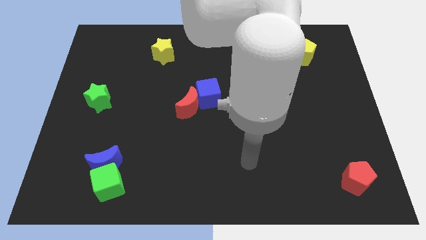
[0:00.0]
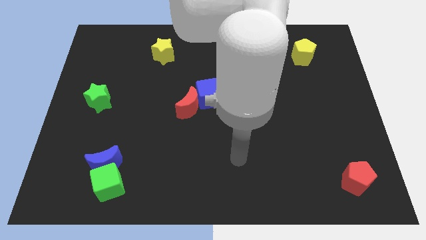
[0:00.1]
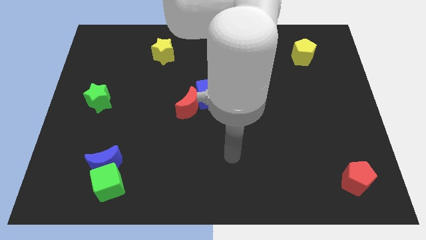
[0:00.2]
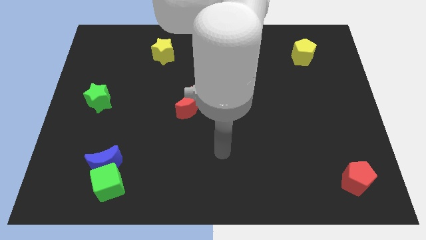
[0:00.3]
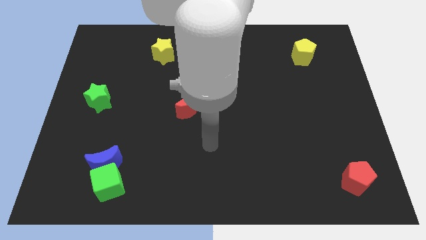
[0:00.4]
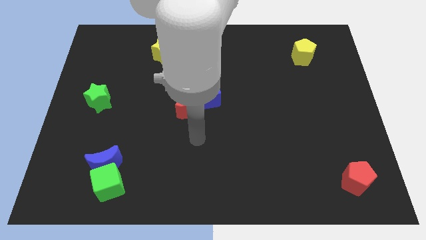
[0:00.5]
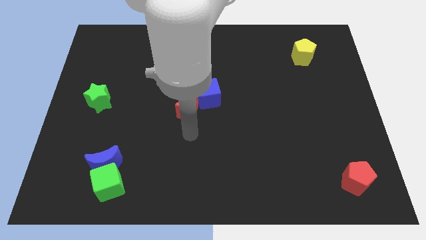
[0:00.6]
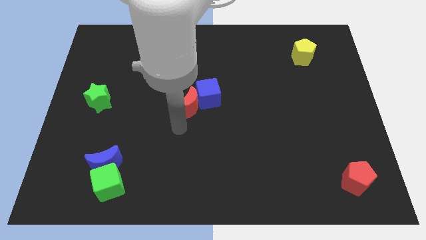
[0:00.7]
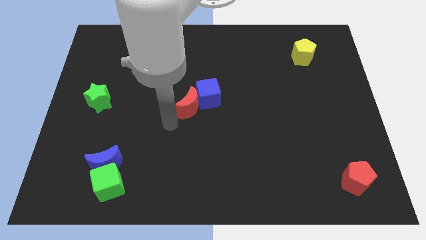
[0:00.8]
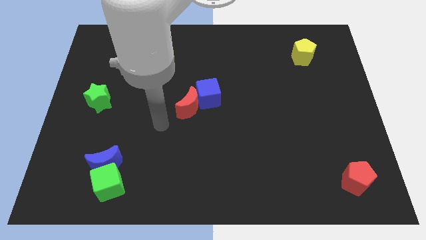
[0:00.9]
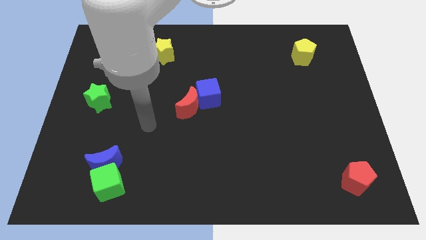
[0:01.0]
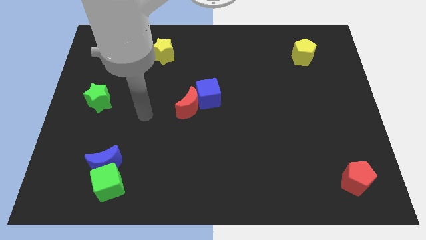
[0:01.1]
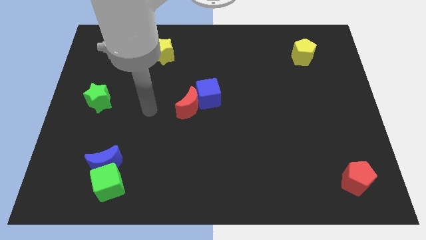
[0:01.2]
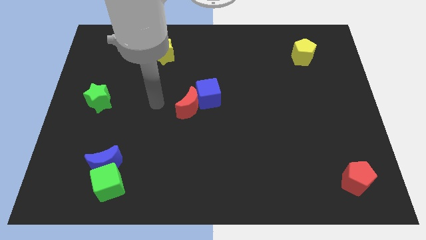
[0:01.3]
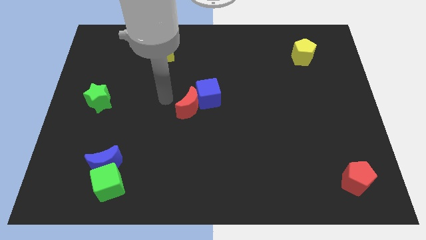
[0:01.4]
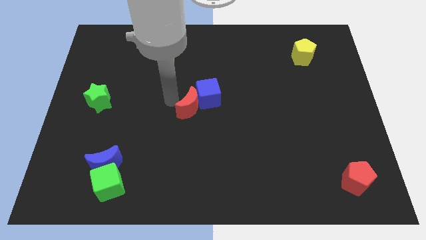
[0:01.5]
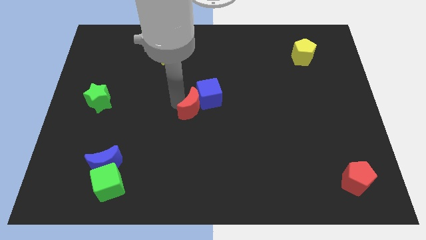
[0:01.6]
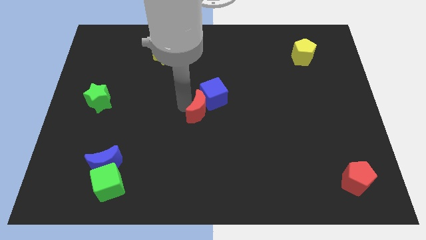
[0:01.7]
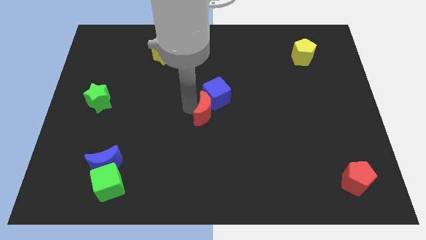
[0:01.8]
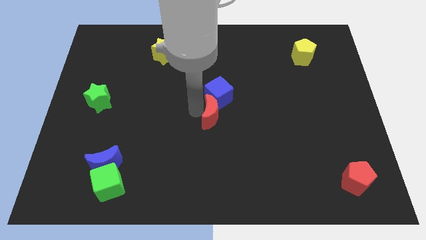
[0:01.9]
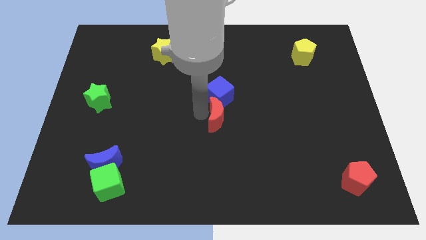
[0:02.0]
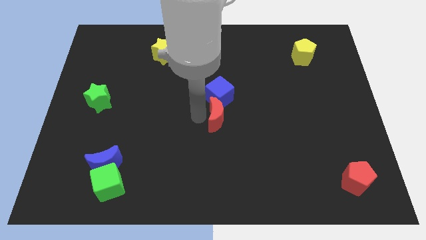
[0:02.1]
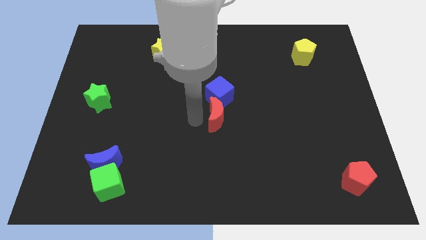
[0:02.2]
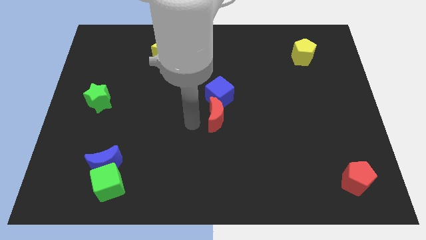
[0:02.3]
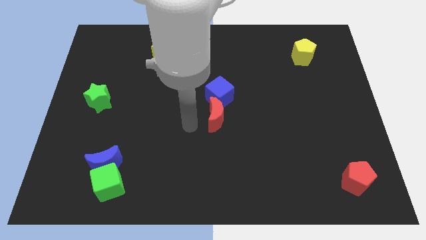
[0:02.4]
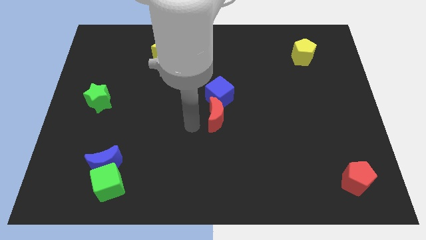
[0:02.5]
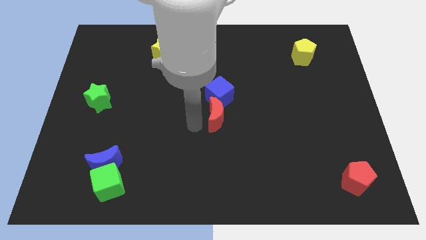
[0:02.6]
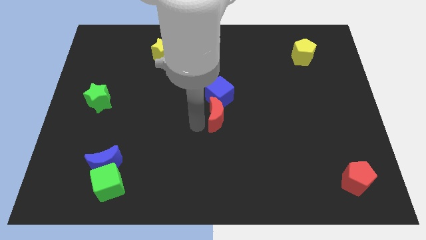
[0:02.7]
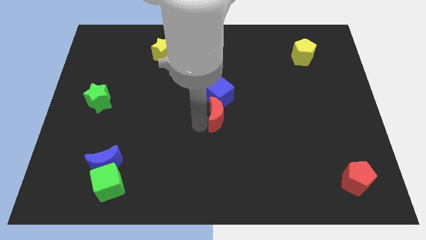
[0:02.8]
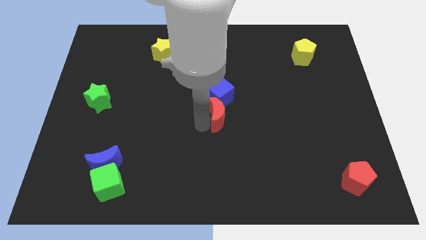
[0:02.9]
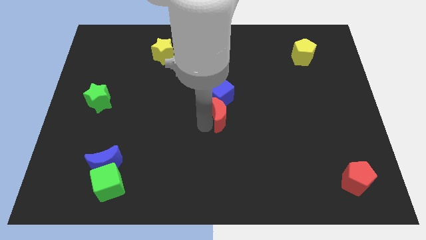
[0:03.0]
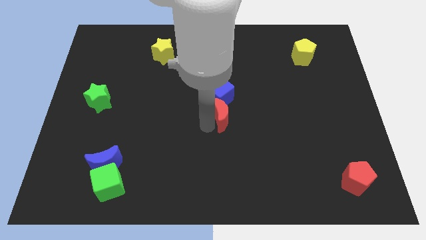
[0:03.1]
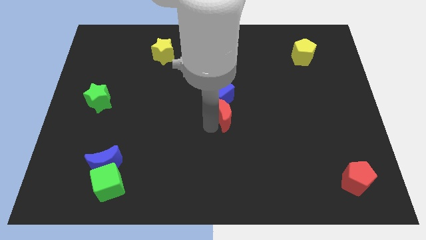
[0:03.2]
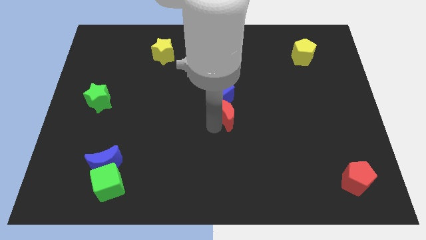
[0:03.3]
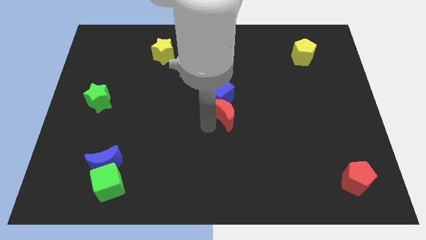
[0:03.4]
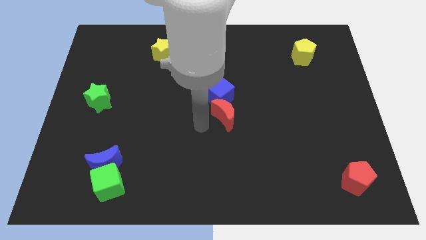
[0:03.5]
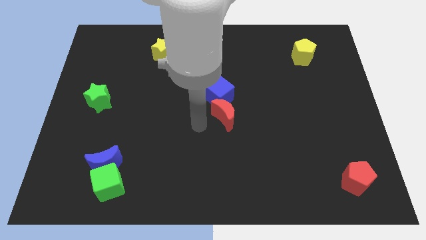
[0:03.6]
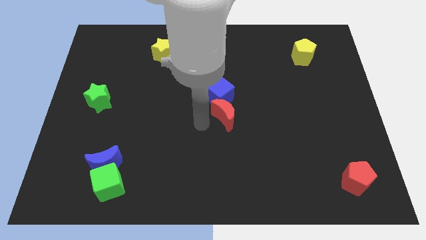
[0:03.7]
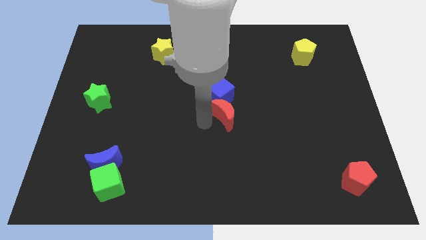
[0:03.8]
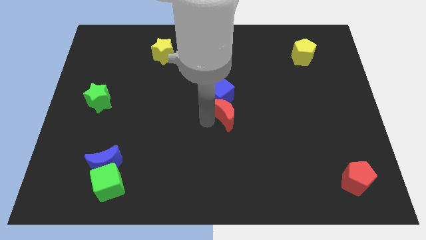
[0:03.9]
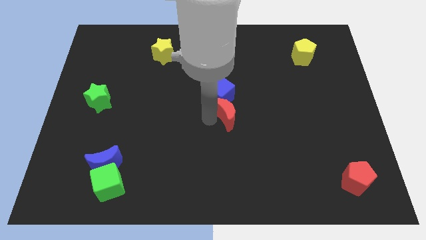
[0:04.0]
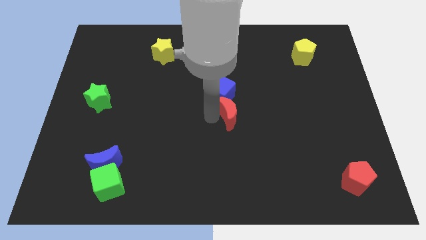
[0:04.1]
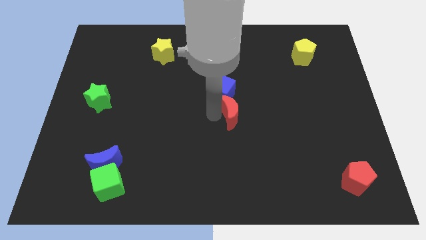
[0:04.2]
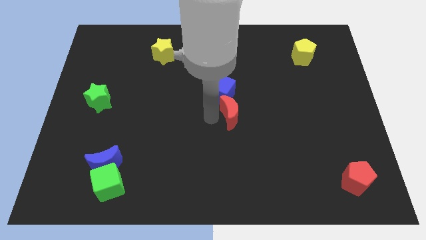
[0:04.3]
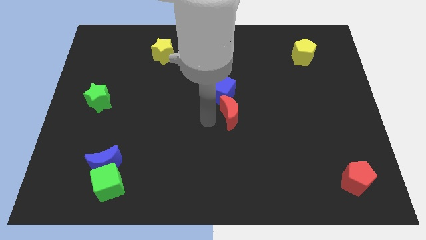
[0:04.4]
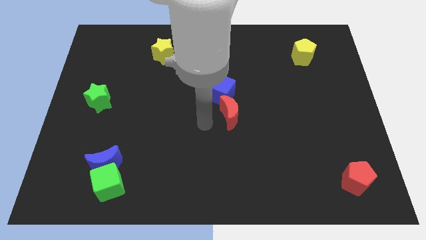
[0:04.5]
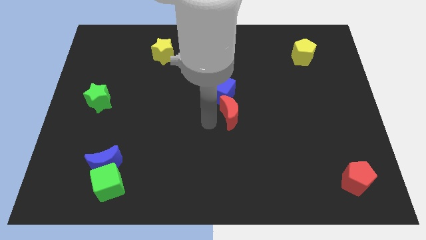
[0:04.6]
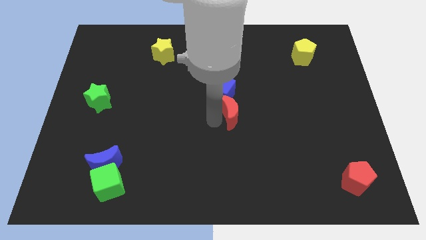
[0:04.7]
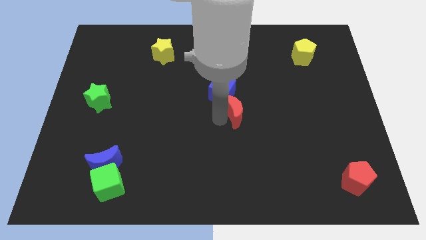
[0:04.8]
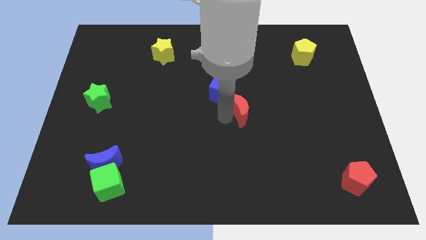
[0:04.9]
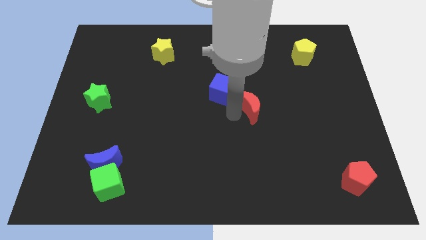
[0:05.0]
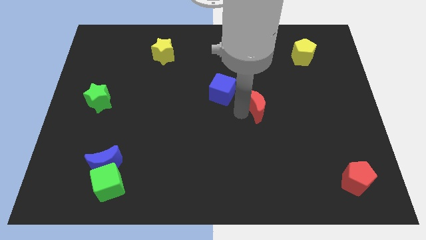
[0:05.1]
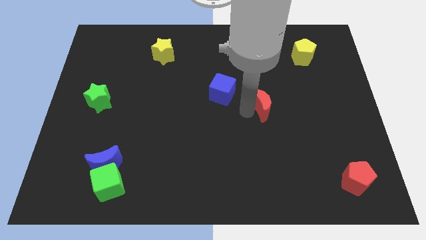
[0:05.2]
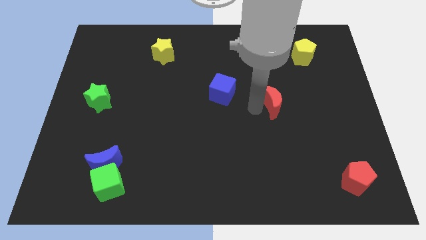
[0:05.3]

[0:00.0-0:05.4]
push the red moon right

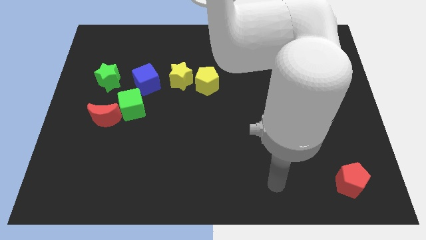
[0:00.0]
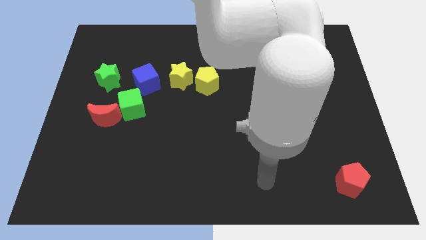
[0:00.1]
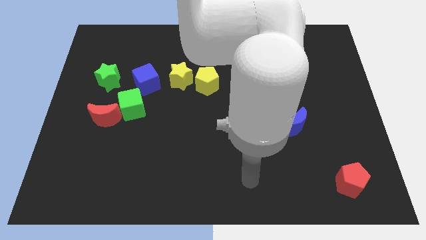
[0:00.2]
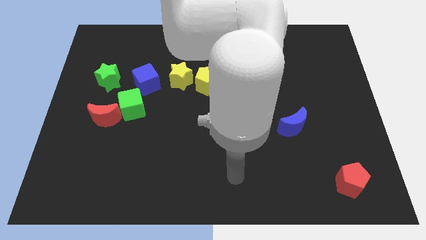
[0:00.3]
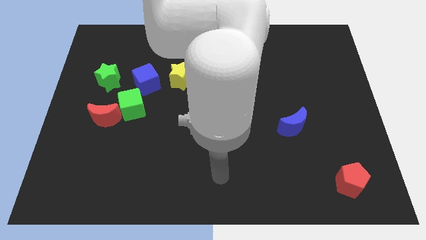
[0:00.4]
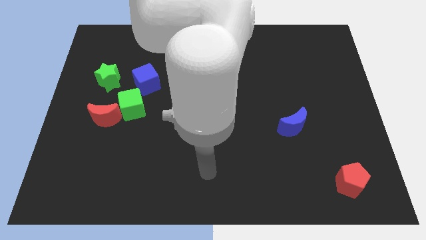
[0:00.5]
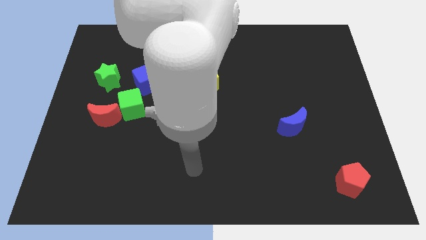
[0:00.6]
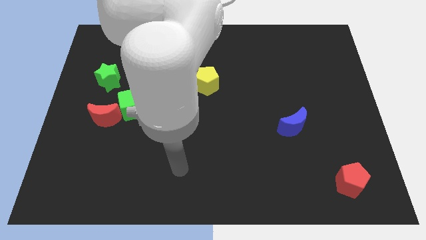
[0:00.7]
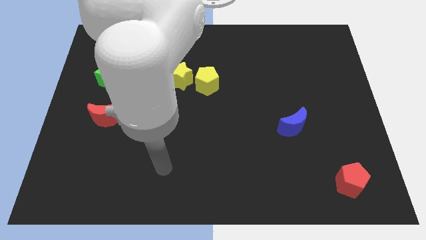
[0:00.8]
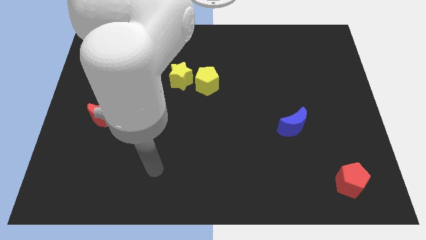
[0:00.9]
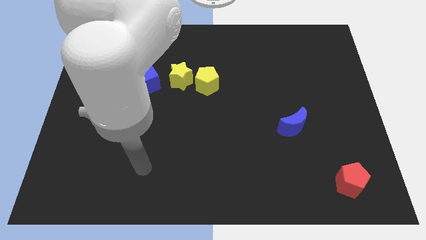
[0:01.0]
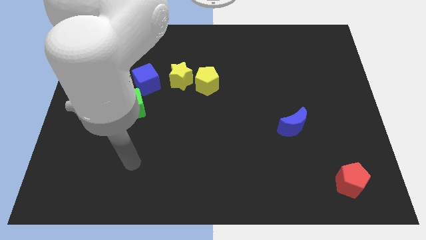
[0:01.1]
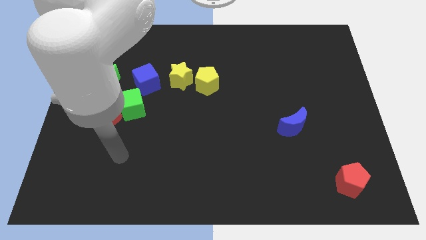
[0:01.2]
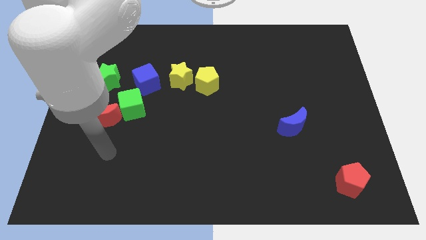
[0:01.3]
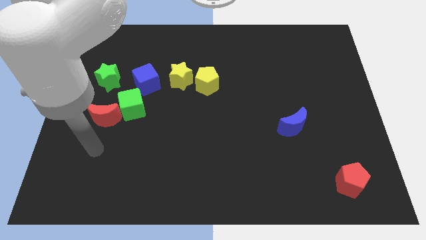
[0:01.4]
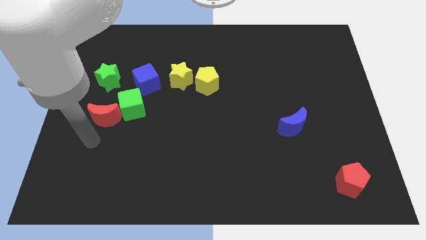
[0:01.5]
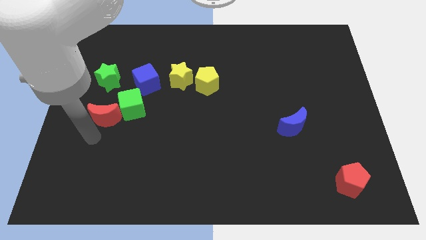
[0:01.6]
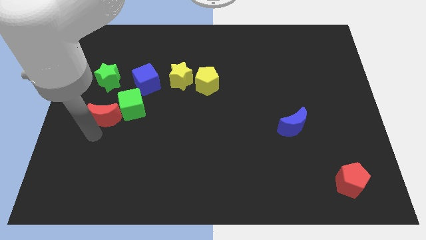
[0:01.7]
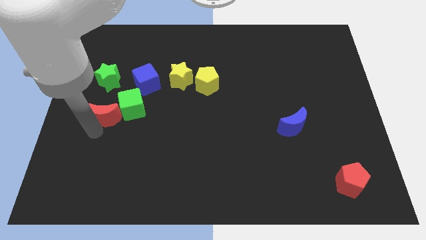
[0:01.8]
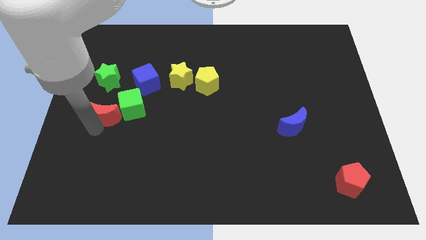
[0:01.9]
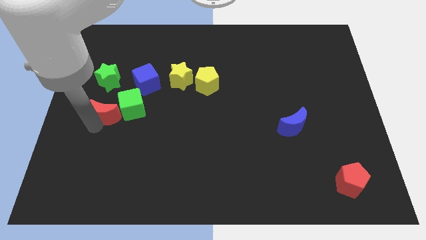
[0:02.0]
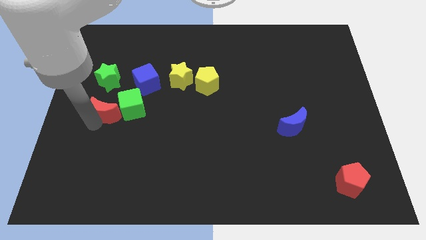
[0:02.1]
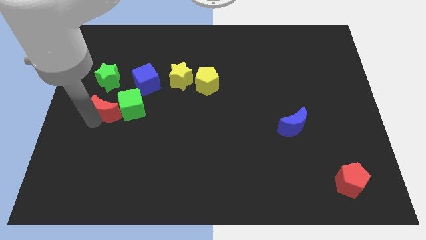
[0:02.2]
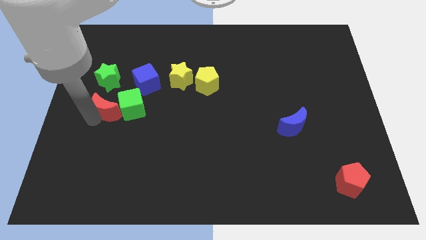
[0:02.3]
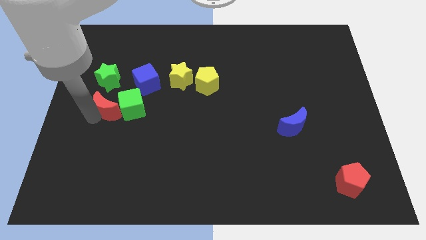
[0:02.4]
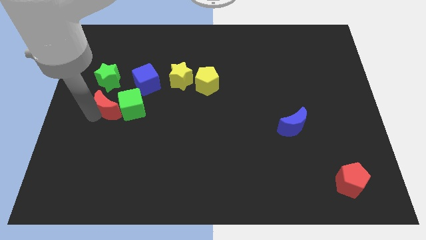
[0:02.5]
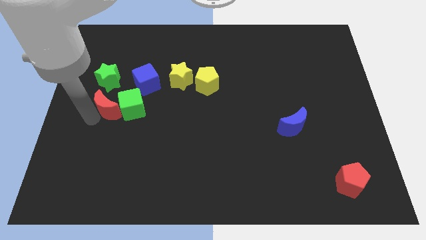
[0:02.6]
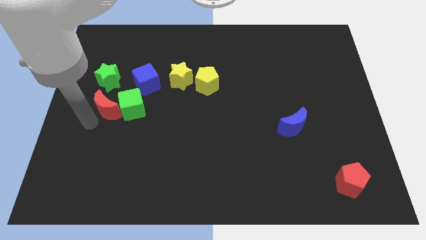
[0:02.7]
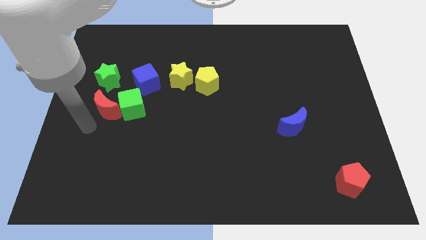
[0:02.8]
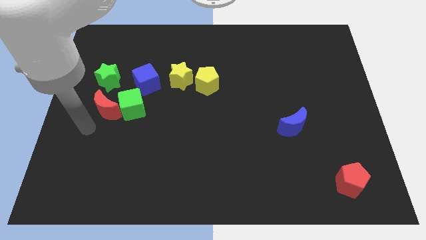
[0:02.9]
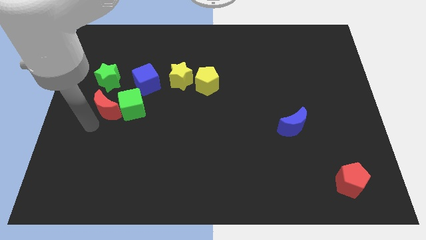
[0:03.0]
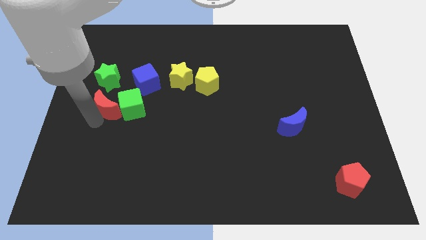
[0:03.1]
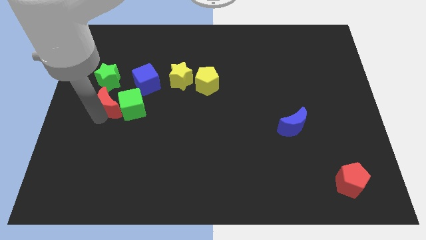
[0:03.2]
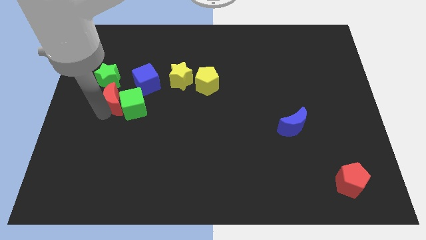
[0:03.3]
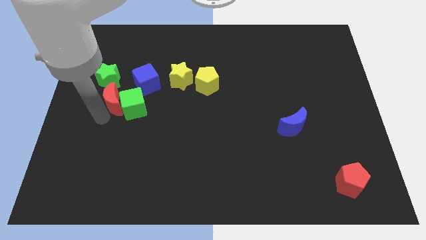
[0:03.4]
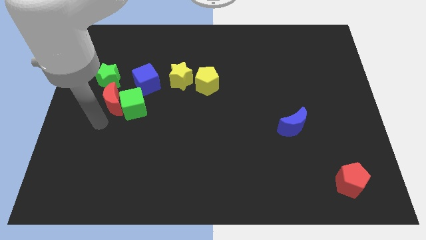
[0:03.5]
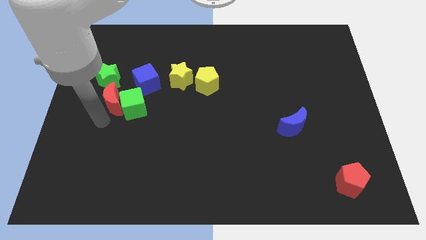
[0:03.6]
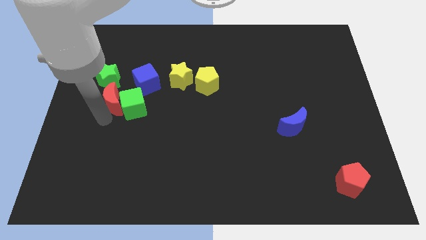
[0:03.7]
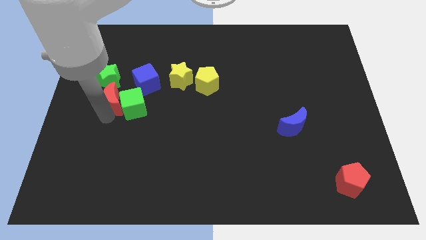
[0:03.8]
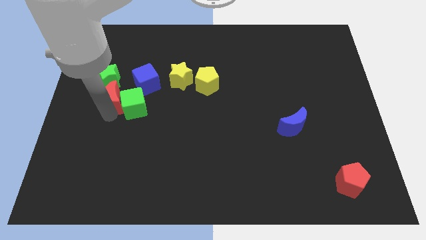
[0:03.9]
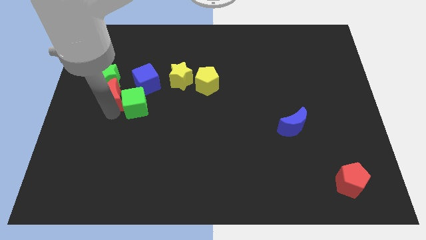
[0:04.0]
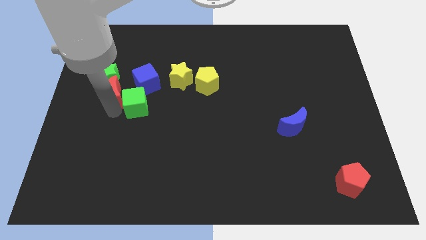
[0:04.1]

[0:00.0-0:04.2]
move the red moon somewhat up
